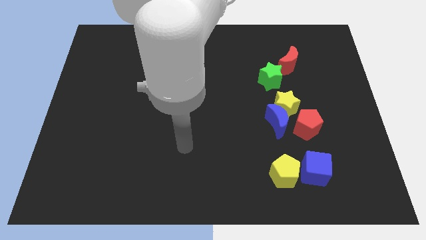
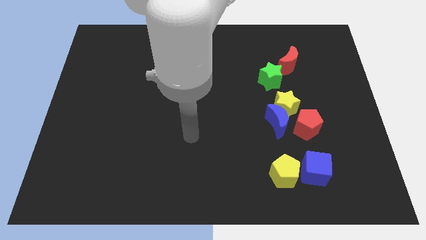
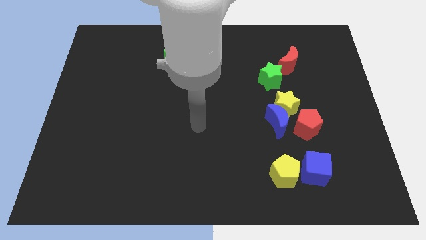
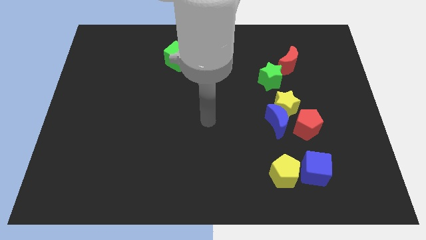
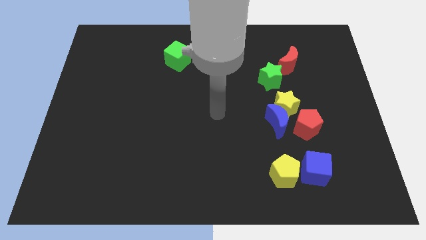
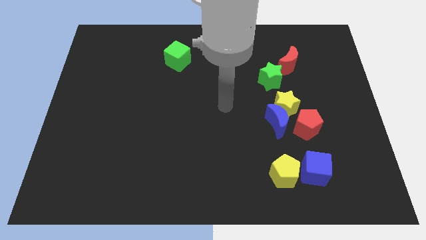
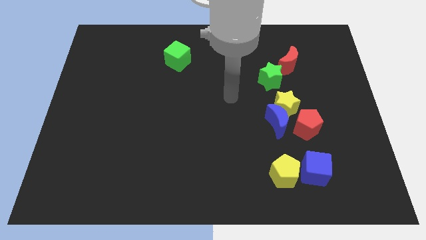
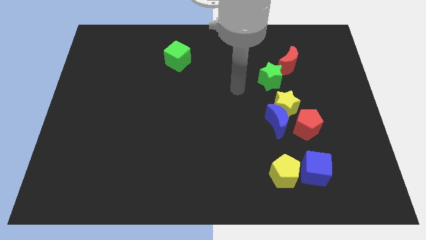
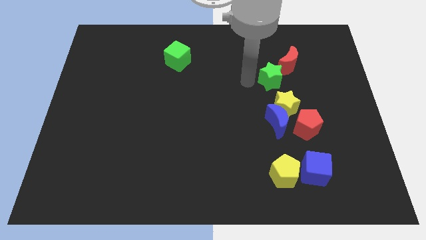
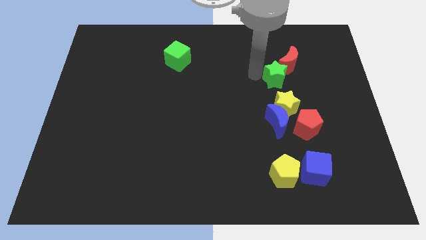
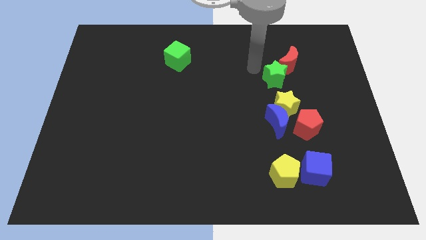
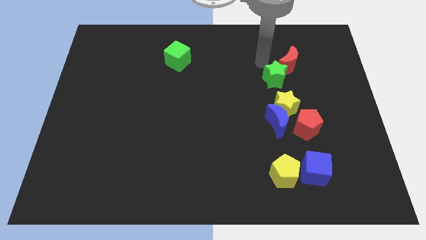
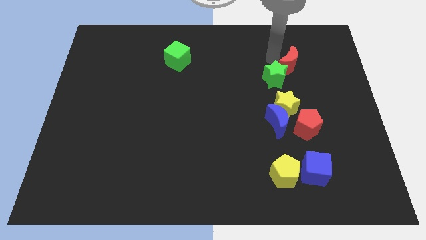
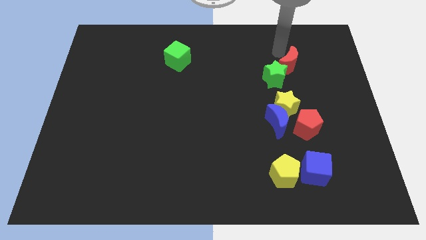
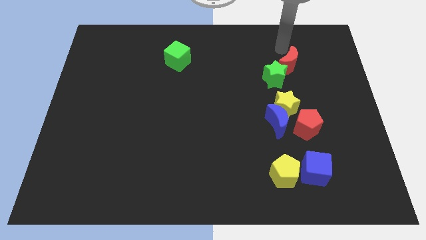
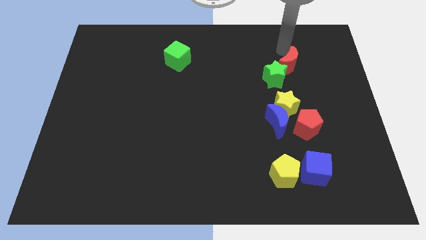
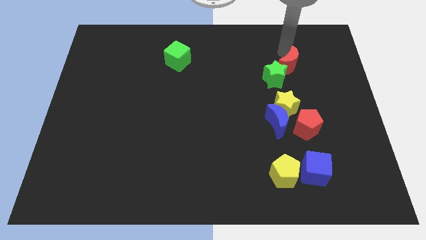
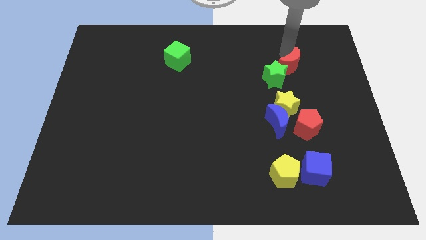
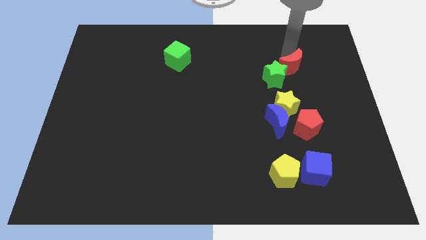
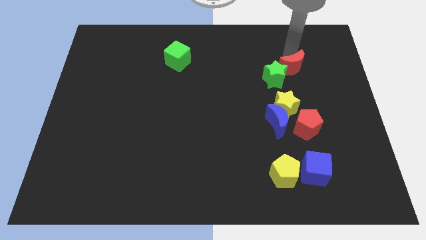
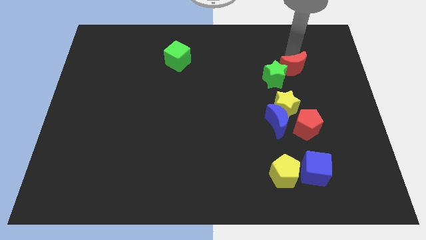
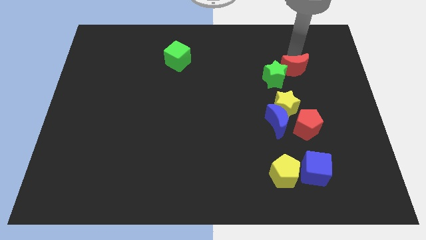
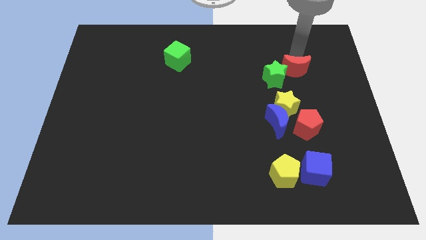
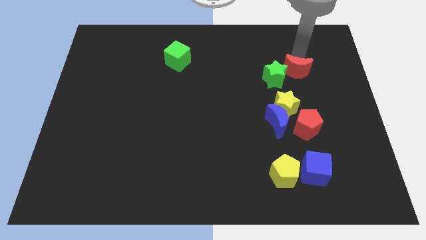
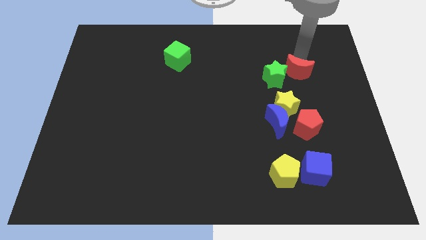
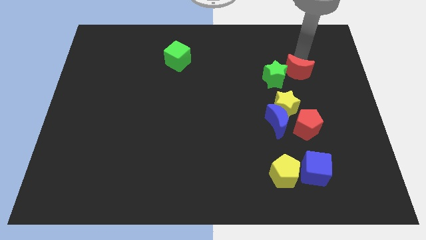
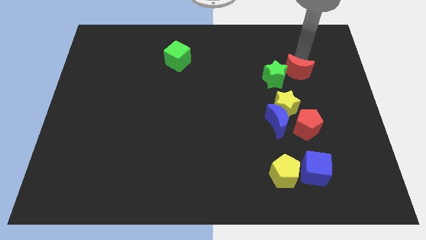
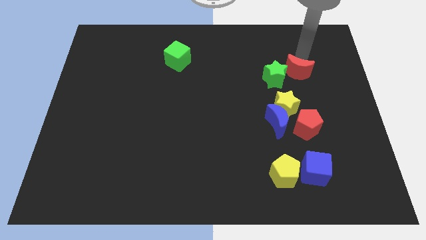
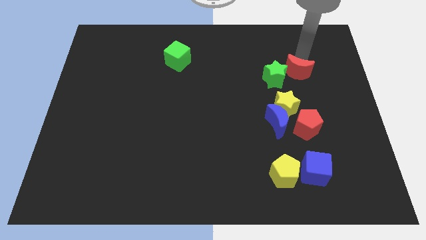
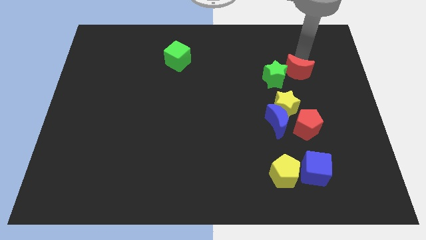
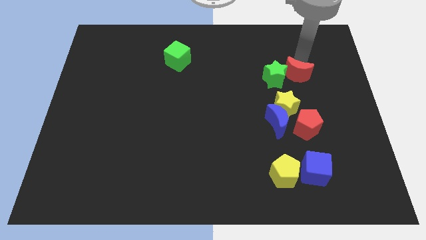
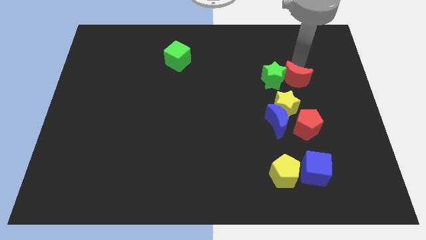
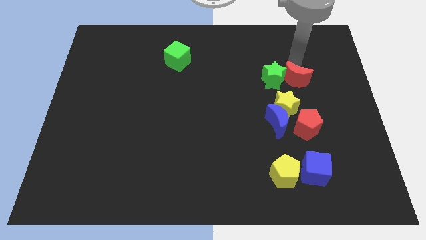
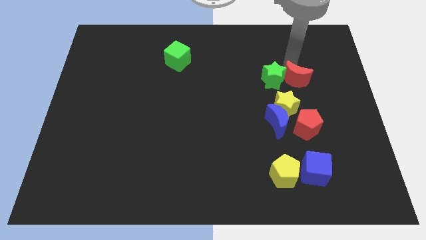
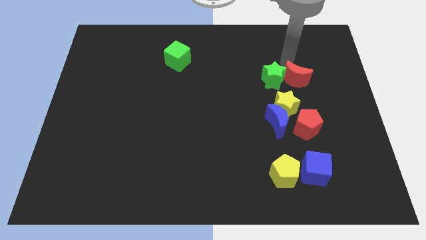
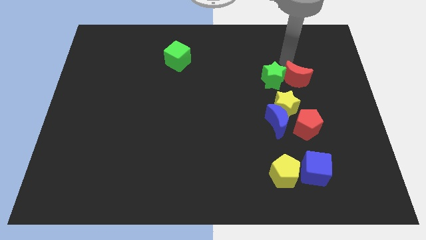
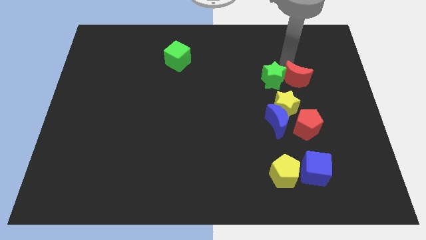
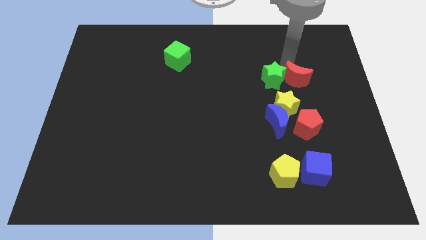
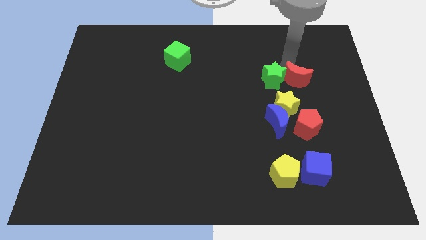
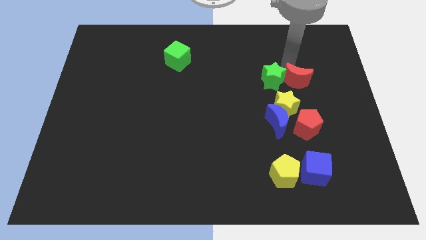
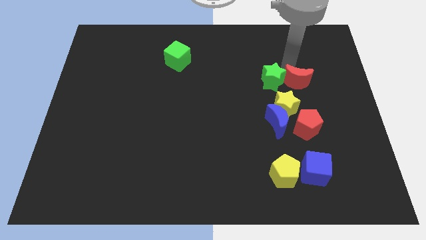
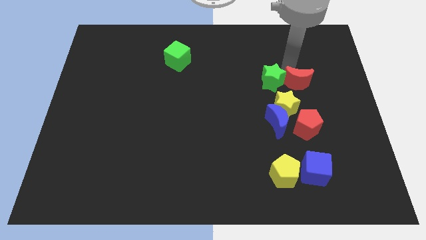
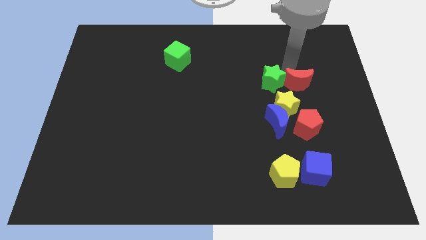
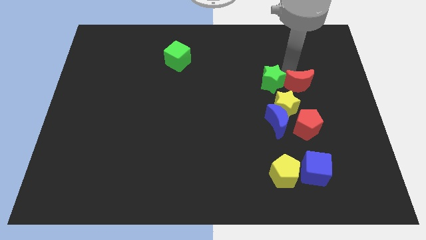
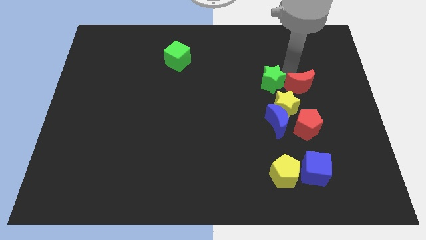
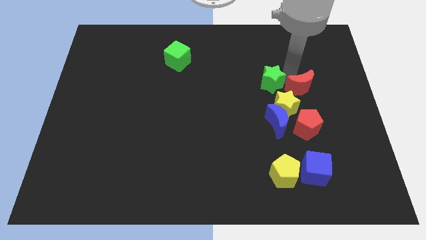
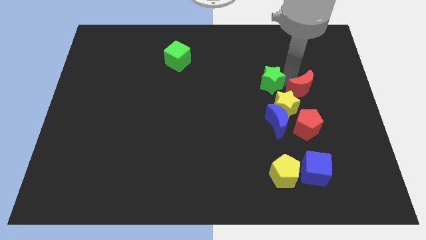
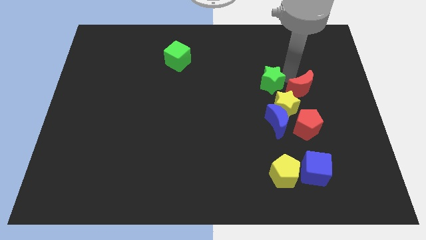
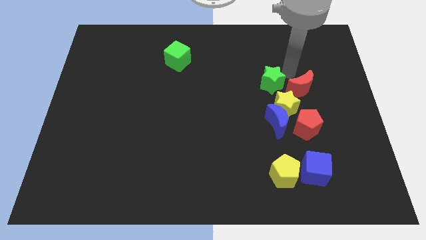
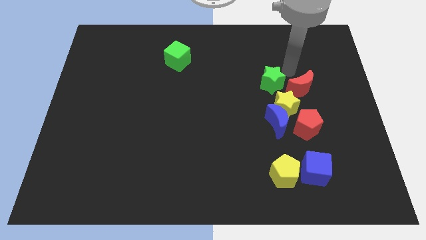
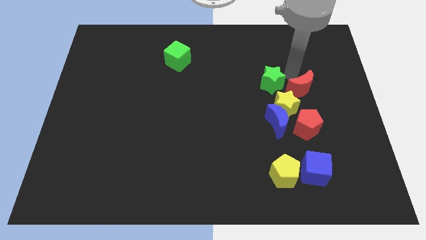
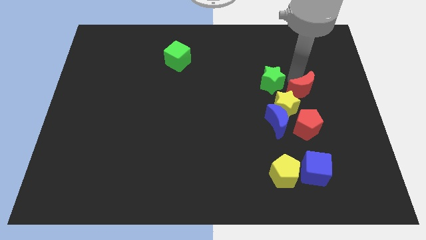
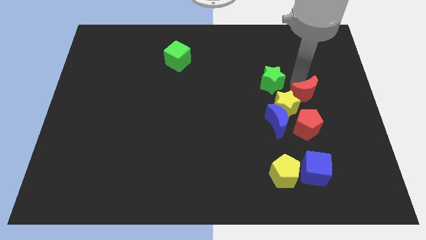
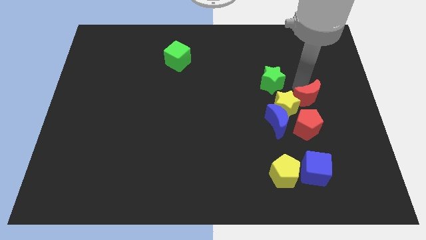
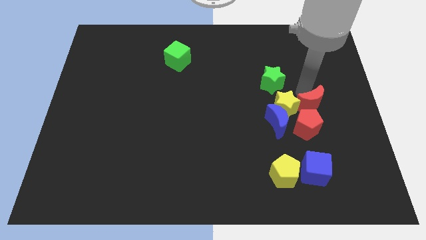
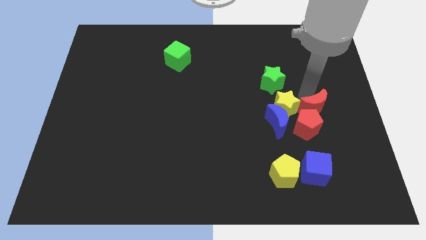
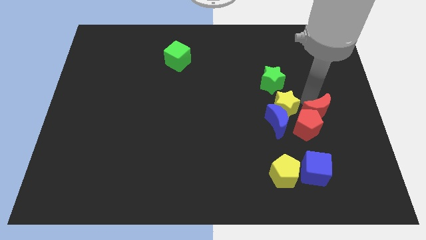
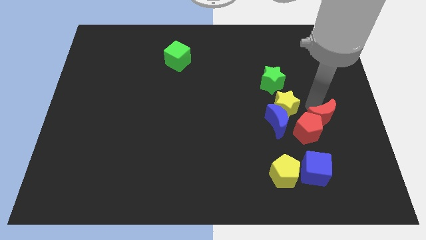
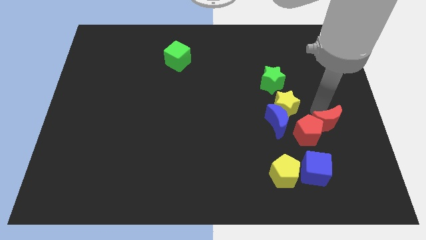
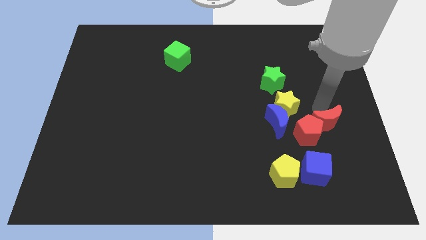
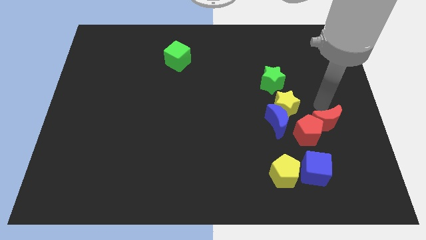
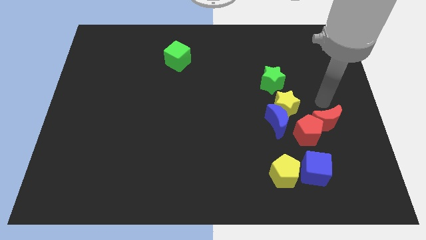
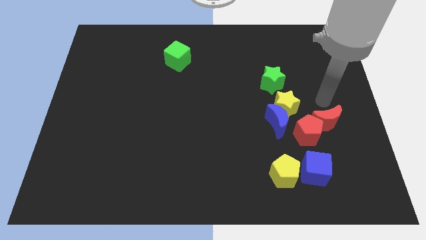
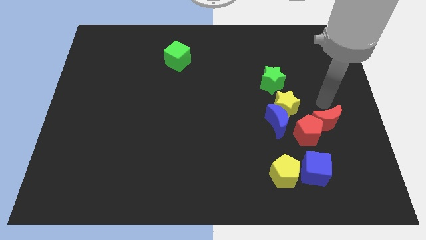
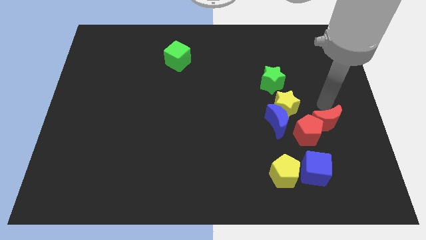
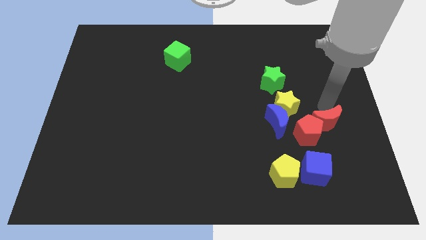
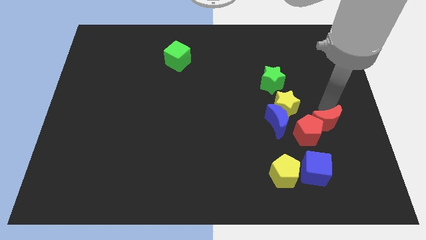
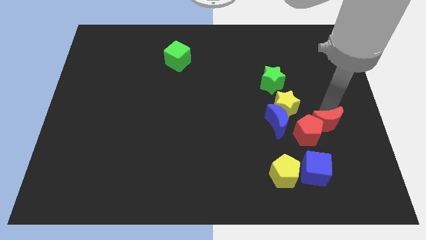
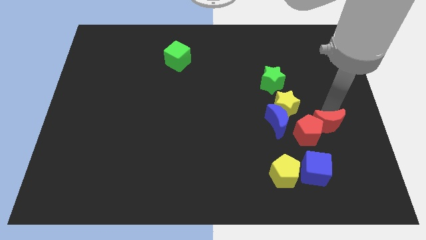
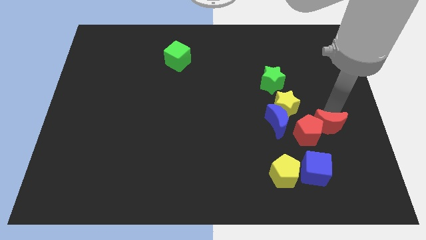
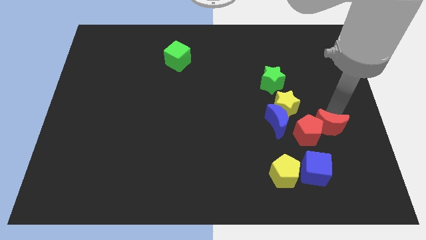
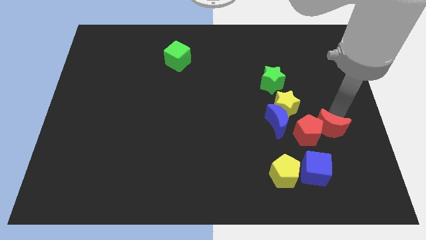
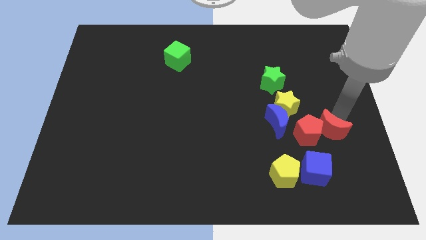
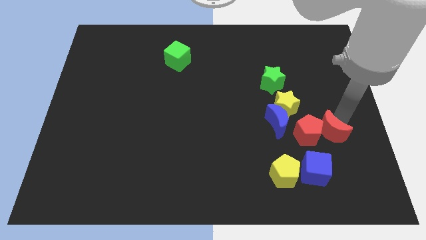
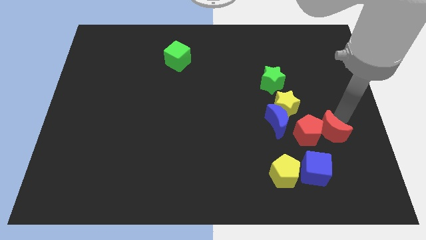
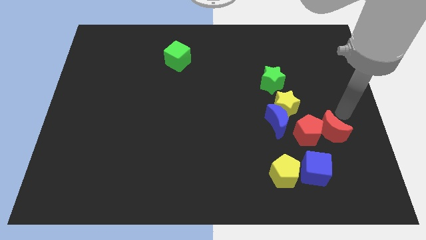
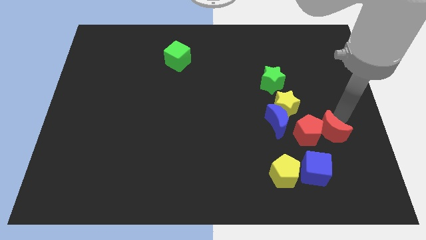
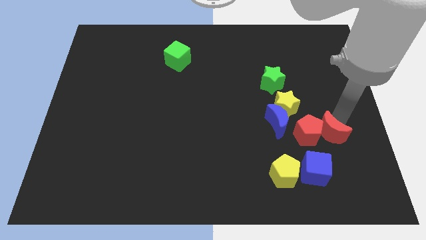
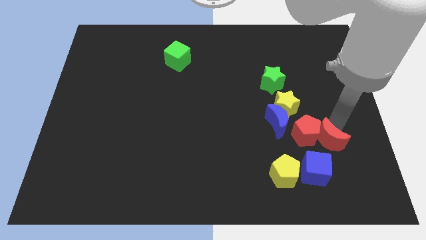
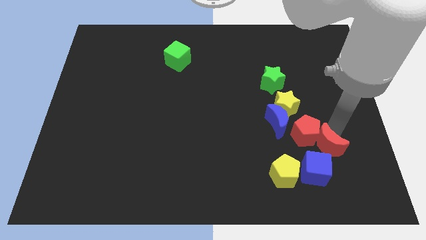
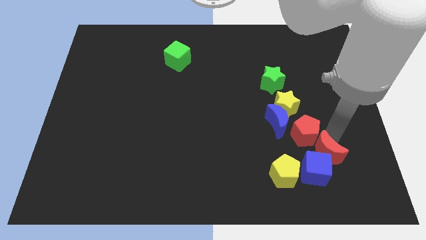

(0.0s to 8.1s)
slide the red moon close to the blue cube

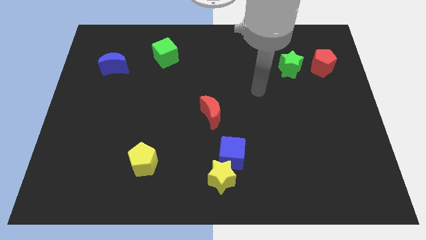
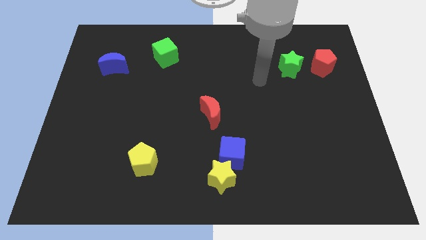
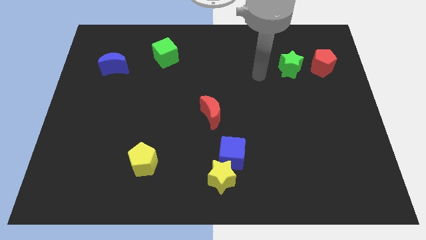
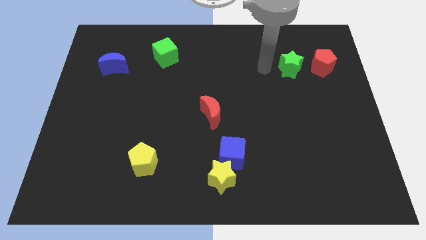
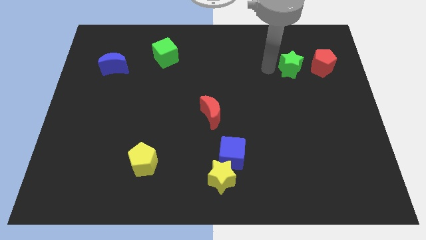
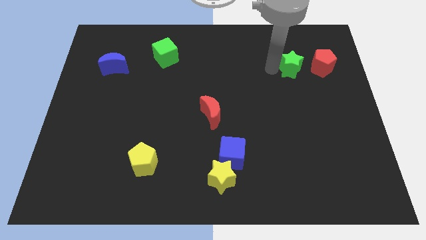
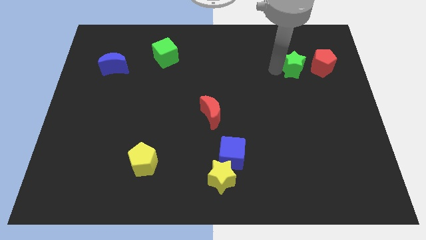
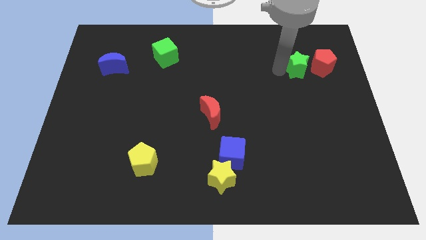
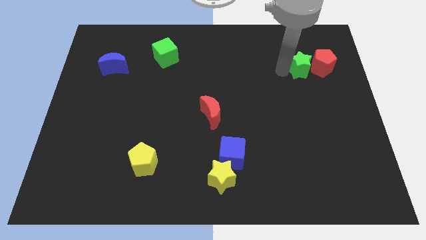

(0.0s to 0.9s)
put the green star close to the red pentagon
